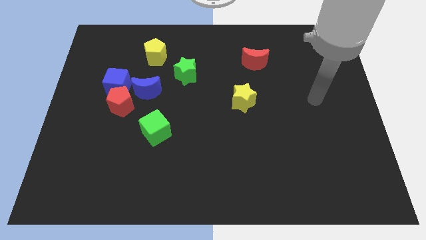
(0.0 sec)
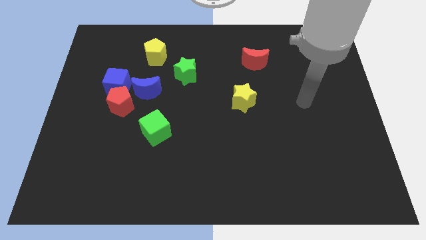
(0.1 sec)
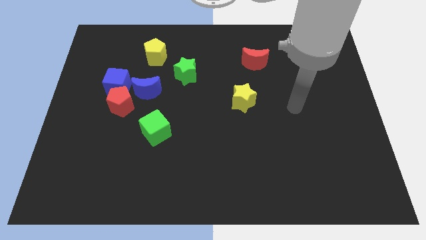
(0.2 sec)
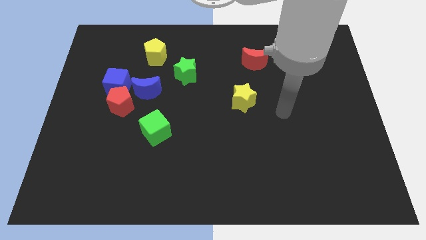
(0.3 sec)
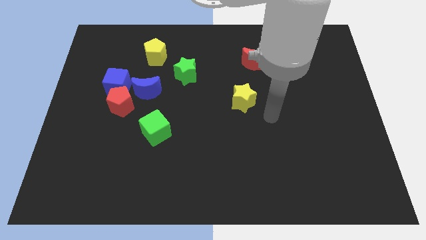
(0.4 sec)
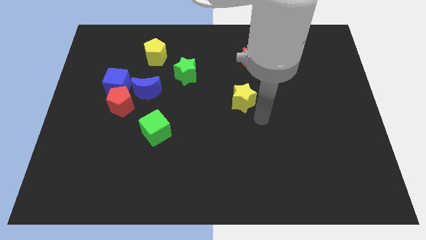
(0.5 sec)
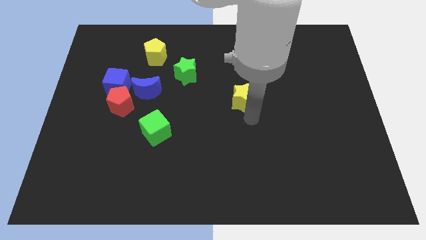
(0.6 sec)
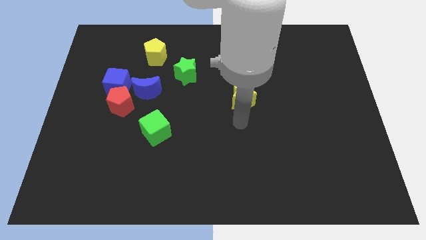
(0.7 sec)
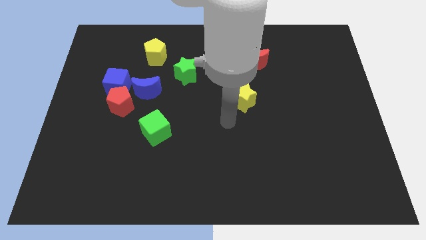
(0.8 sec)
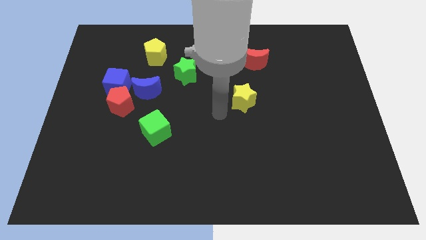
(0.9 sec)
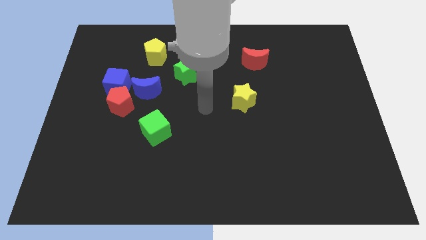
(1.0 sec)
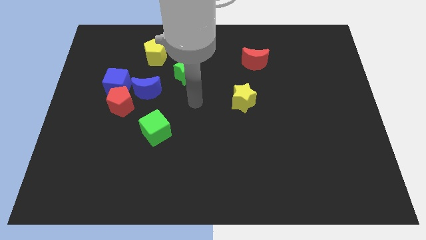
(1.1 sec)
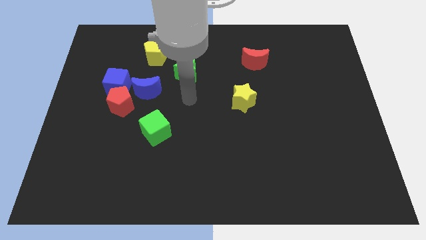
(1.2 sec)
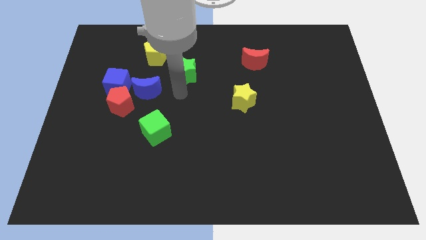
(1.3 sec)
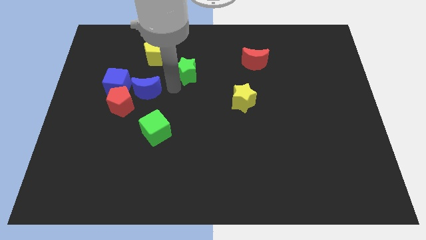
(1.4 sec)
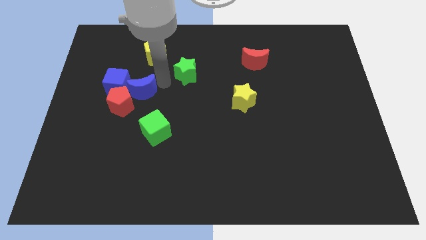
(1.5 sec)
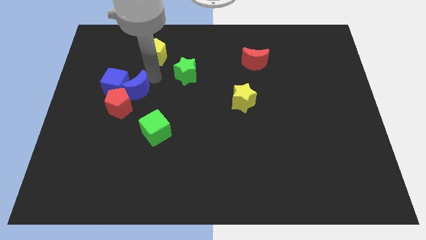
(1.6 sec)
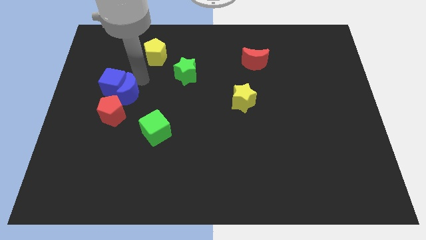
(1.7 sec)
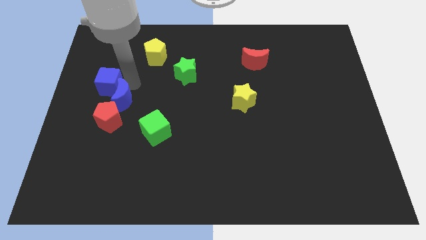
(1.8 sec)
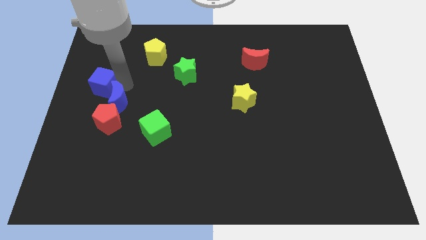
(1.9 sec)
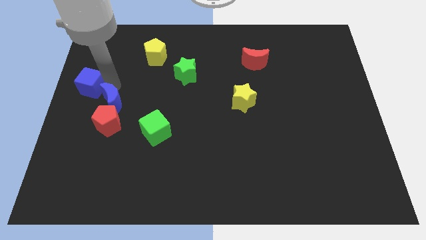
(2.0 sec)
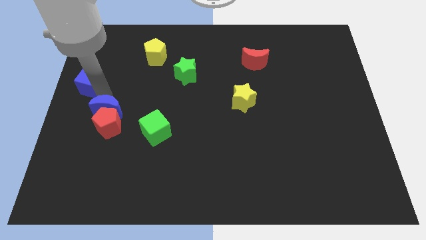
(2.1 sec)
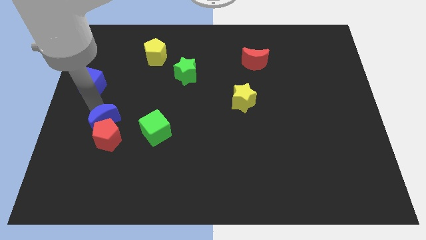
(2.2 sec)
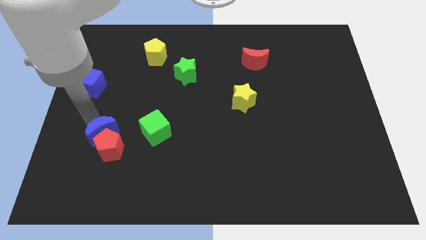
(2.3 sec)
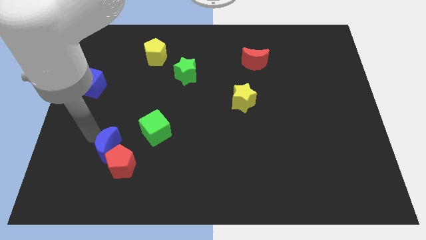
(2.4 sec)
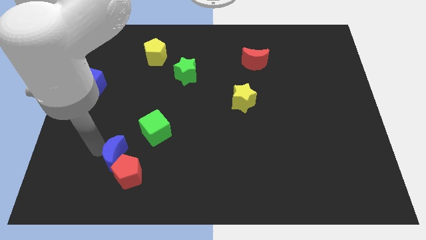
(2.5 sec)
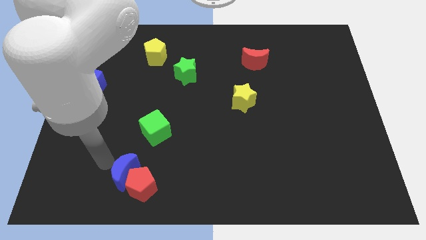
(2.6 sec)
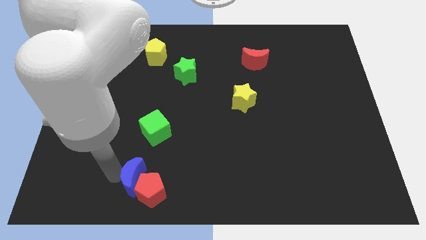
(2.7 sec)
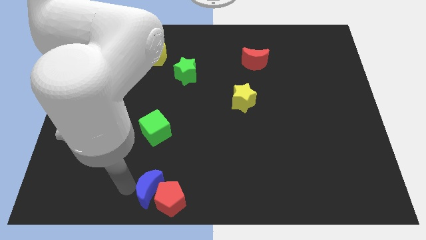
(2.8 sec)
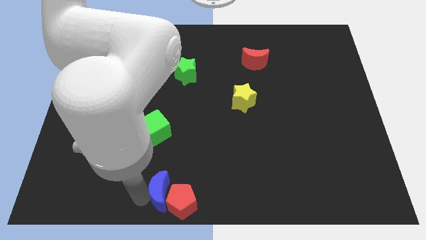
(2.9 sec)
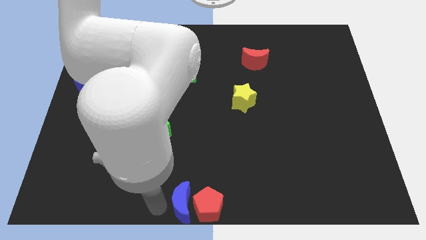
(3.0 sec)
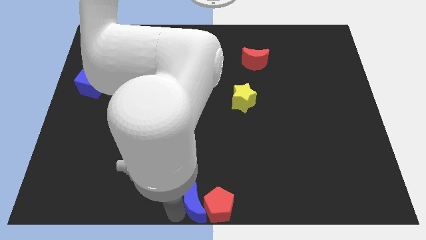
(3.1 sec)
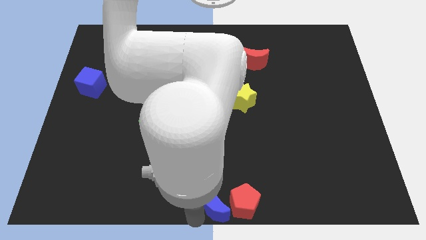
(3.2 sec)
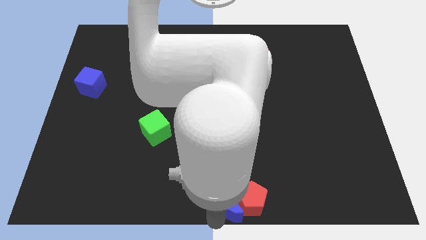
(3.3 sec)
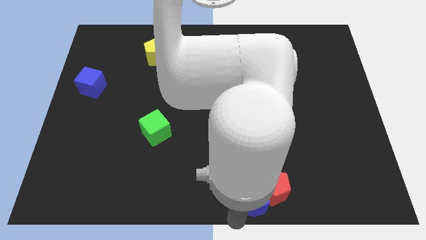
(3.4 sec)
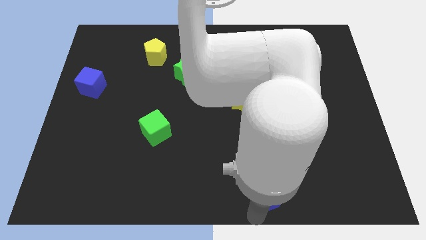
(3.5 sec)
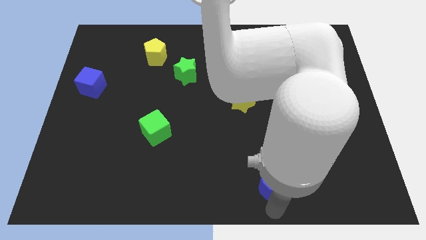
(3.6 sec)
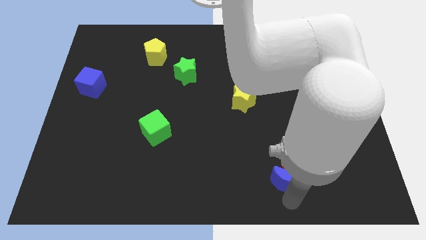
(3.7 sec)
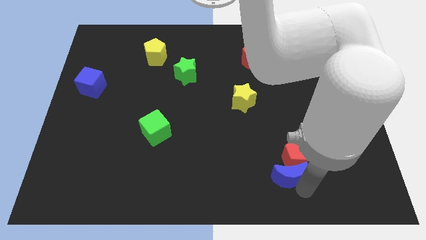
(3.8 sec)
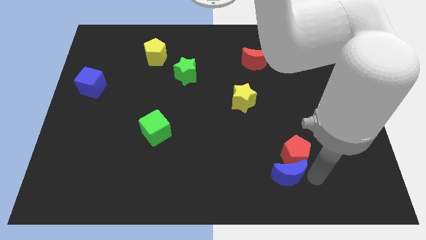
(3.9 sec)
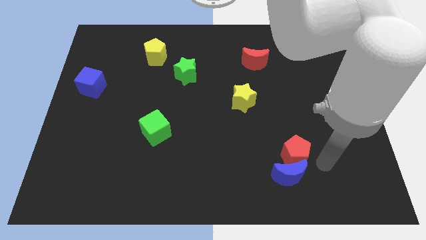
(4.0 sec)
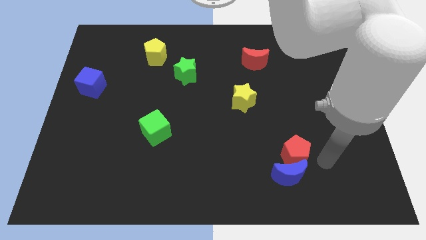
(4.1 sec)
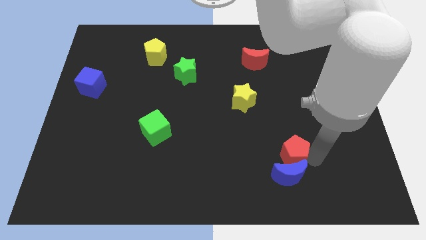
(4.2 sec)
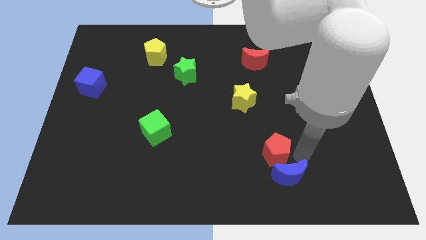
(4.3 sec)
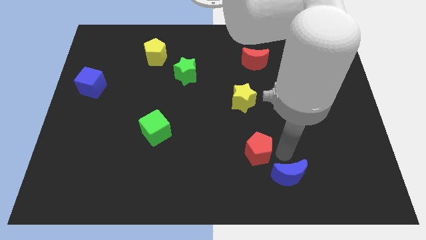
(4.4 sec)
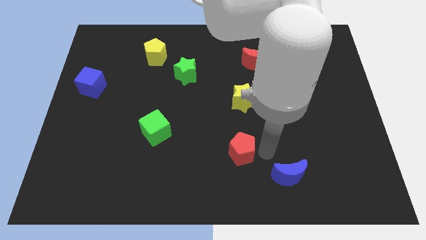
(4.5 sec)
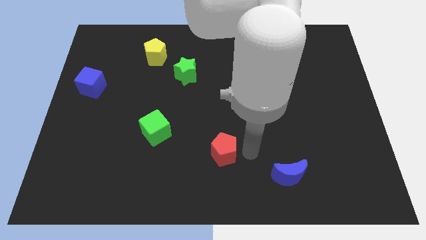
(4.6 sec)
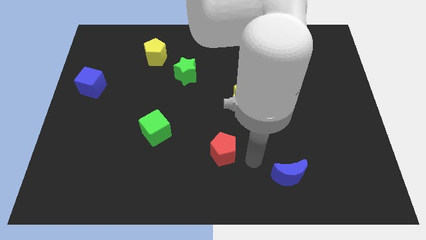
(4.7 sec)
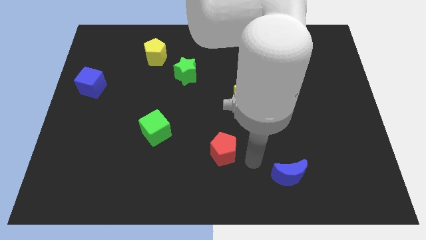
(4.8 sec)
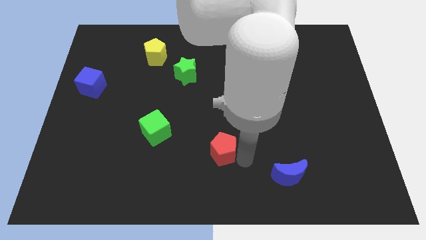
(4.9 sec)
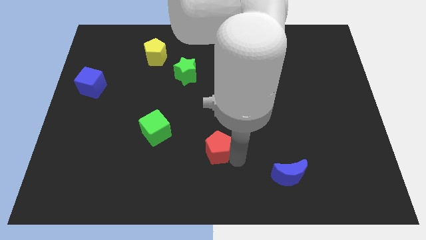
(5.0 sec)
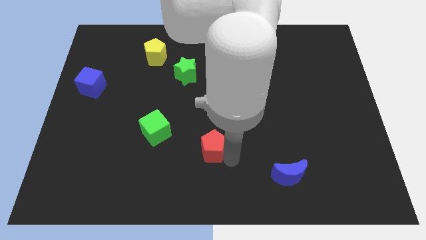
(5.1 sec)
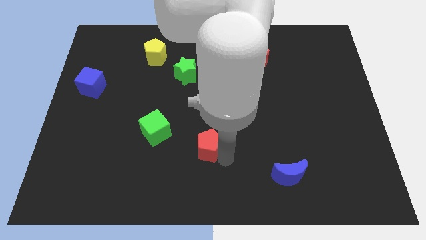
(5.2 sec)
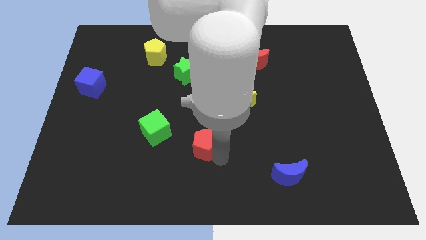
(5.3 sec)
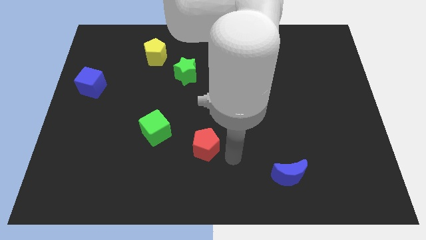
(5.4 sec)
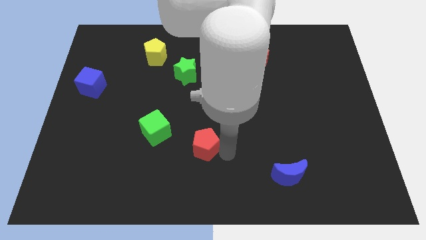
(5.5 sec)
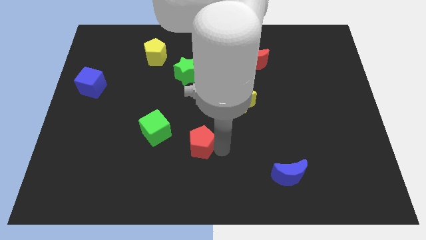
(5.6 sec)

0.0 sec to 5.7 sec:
push the red pentagon diagonally down and to the right of the green cube
